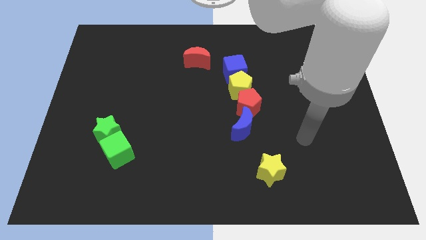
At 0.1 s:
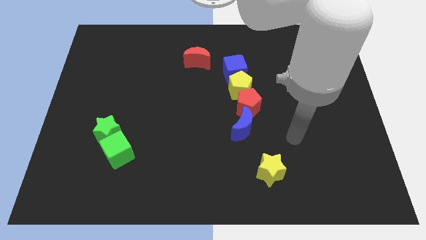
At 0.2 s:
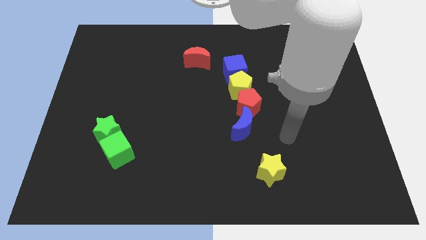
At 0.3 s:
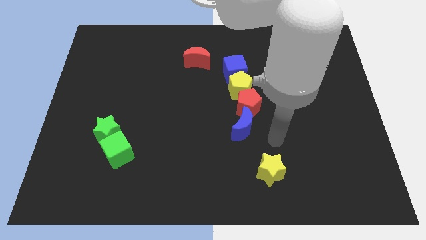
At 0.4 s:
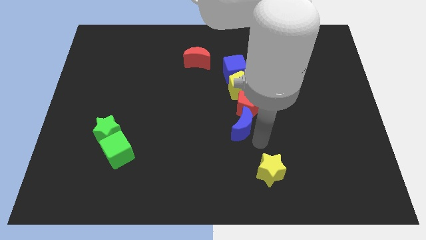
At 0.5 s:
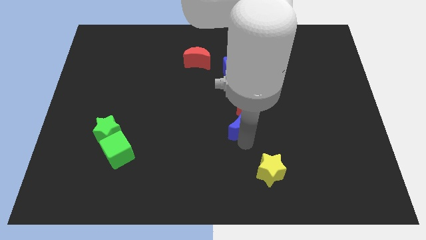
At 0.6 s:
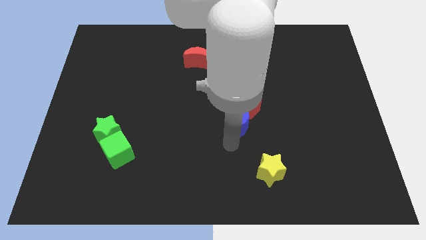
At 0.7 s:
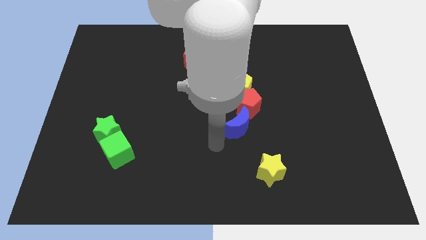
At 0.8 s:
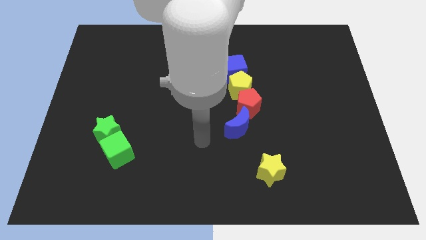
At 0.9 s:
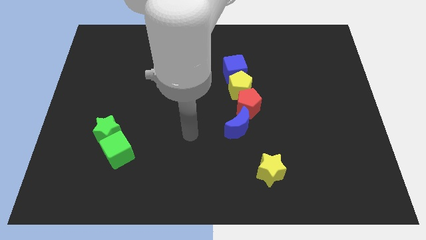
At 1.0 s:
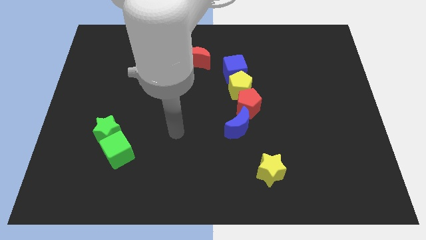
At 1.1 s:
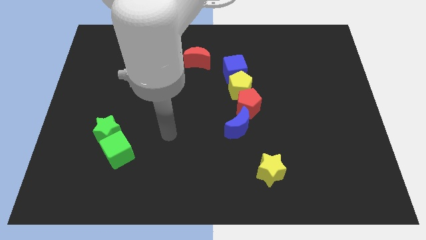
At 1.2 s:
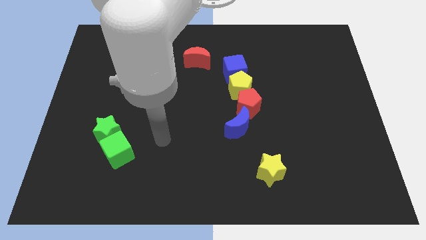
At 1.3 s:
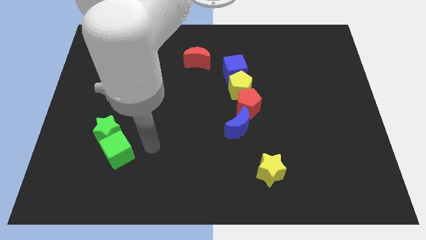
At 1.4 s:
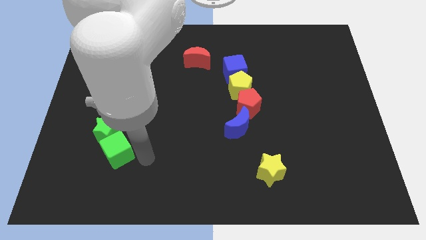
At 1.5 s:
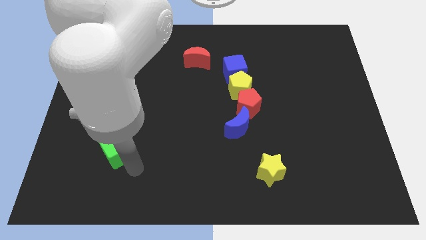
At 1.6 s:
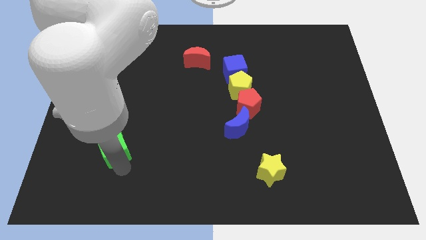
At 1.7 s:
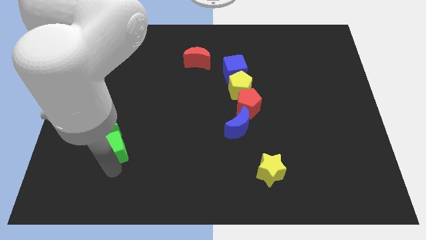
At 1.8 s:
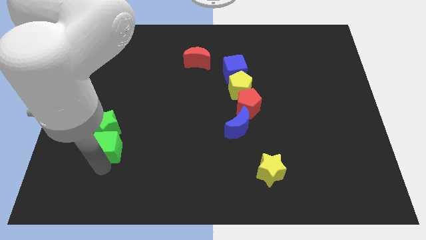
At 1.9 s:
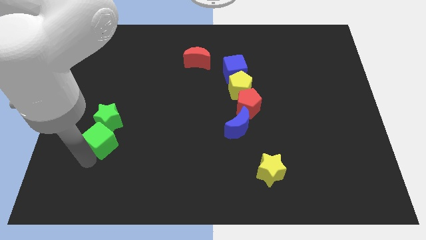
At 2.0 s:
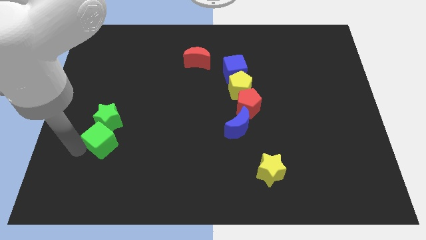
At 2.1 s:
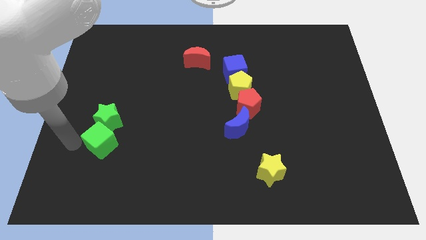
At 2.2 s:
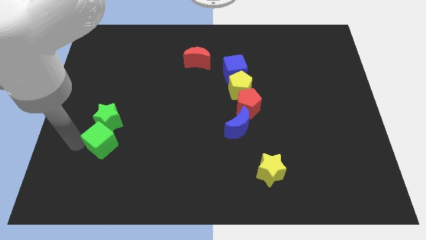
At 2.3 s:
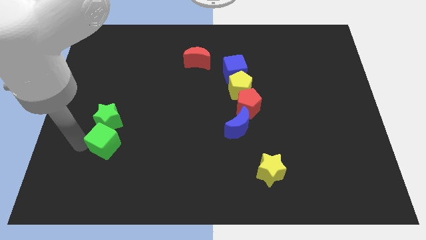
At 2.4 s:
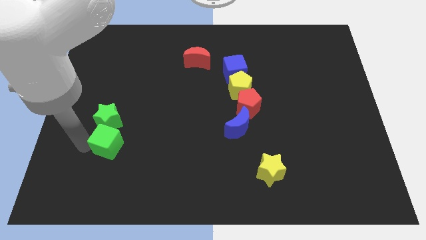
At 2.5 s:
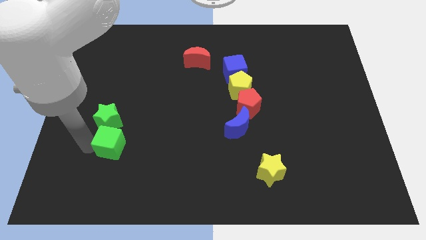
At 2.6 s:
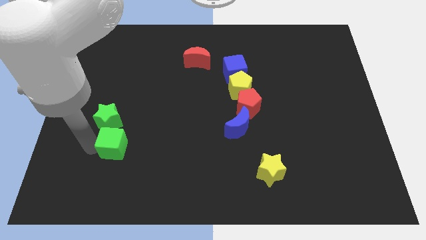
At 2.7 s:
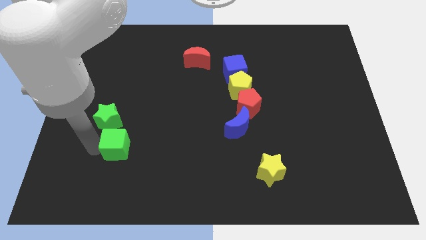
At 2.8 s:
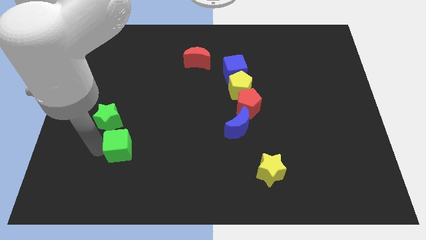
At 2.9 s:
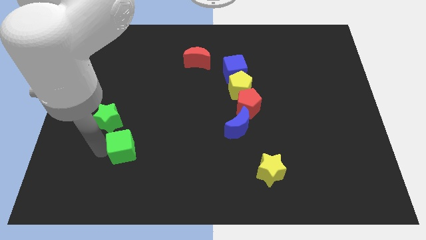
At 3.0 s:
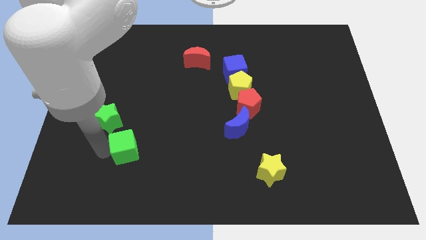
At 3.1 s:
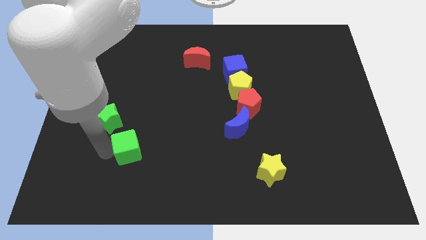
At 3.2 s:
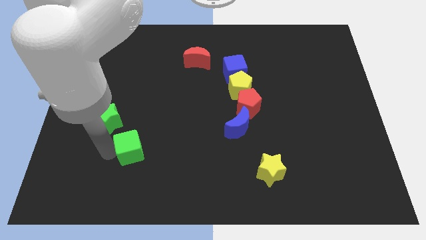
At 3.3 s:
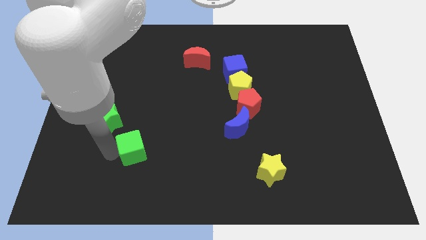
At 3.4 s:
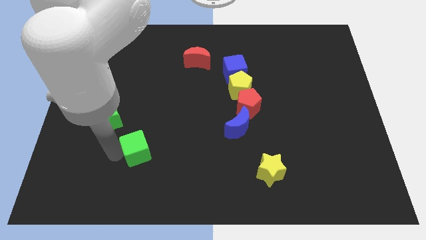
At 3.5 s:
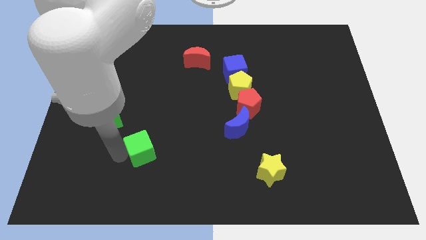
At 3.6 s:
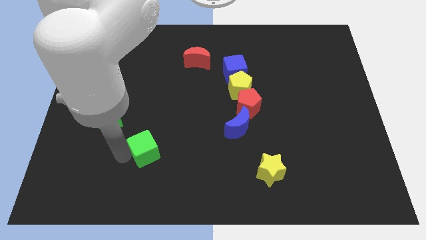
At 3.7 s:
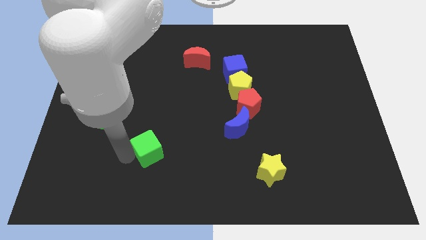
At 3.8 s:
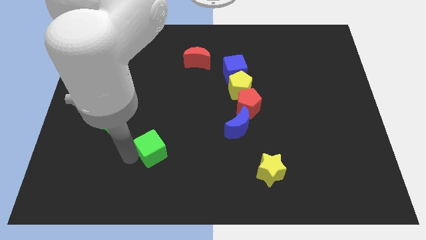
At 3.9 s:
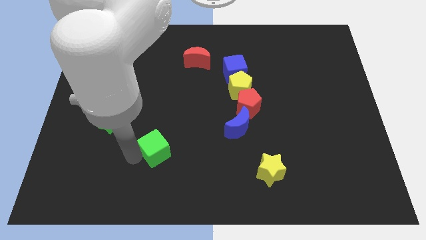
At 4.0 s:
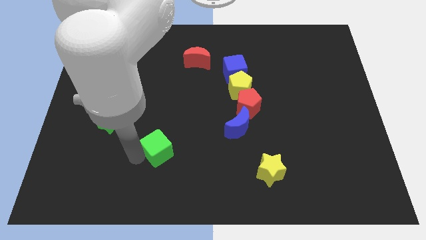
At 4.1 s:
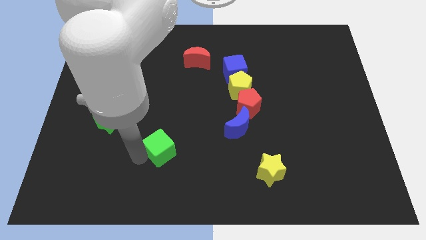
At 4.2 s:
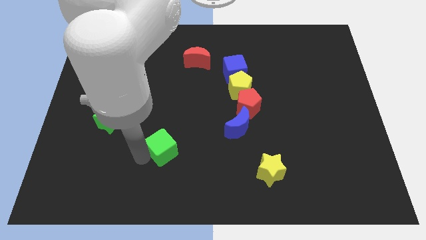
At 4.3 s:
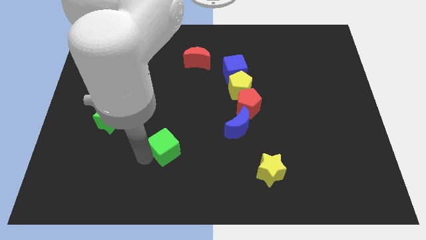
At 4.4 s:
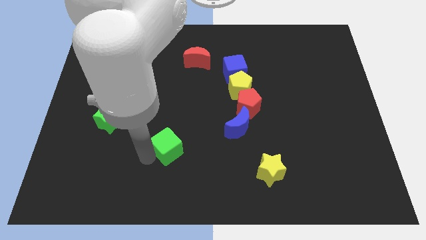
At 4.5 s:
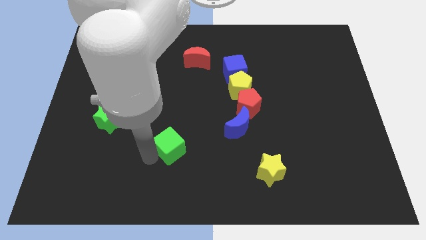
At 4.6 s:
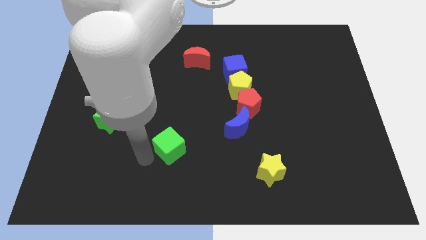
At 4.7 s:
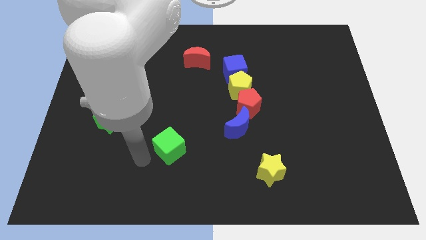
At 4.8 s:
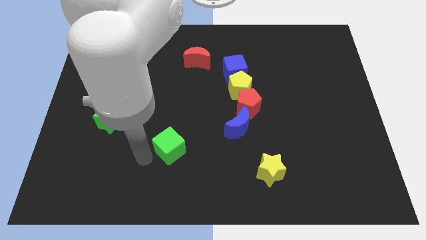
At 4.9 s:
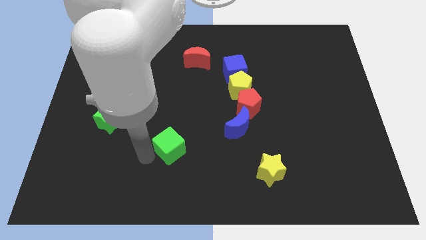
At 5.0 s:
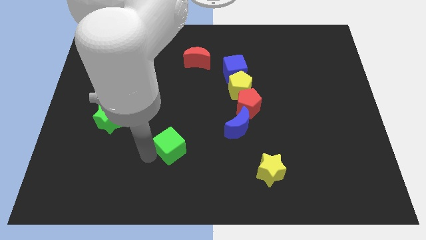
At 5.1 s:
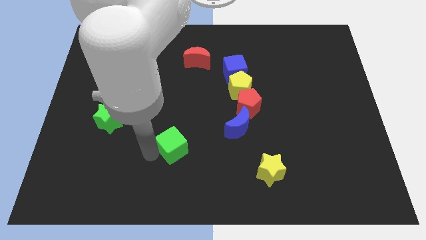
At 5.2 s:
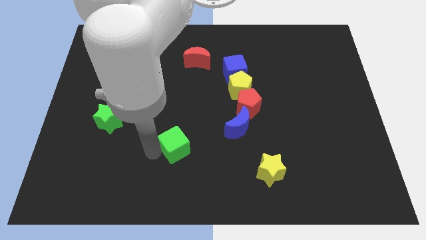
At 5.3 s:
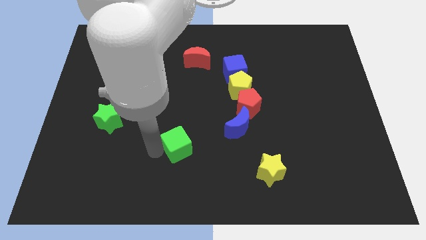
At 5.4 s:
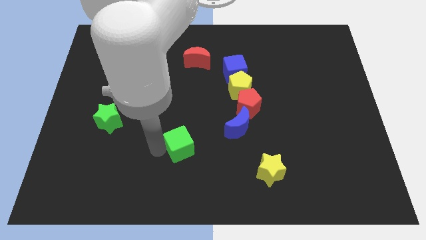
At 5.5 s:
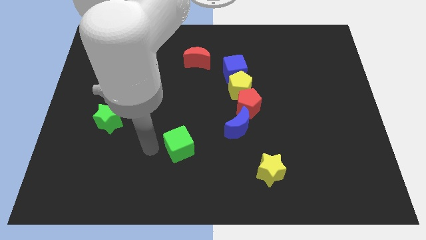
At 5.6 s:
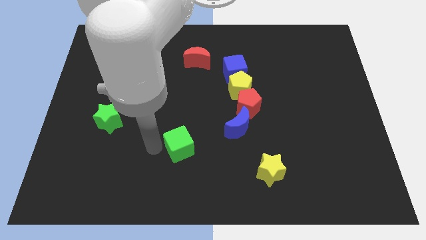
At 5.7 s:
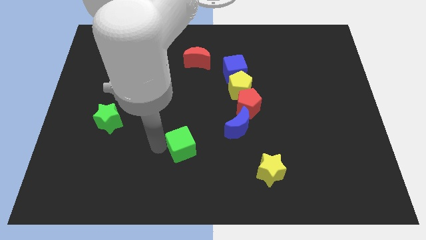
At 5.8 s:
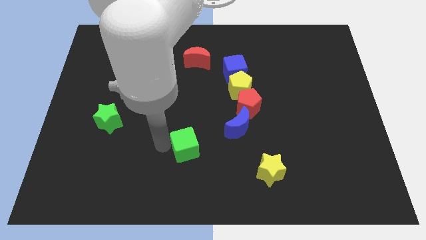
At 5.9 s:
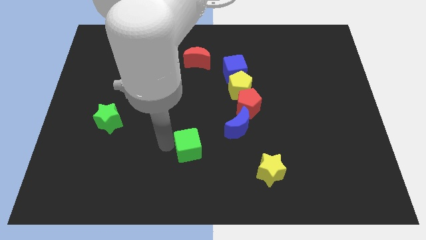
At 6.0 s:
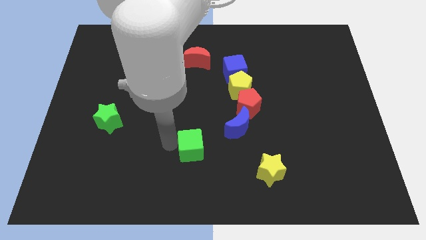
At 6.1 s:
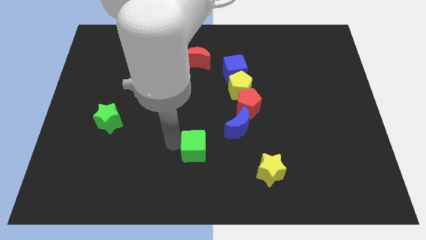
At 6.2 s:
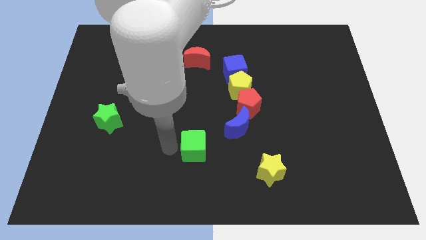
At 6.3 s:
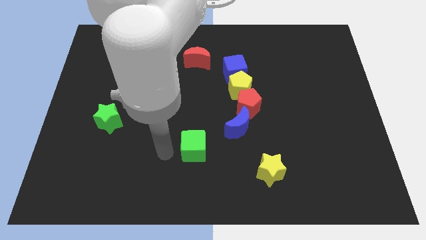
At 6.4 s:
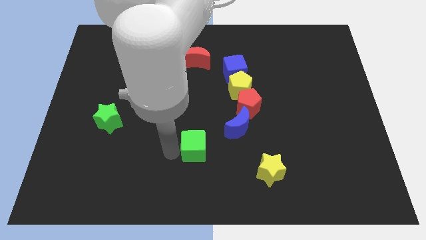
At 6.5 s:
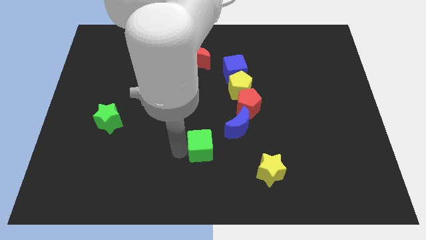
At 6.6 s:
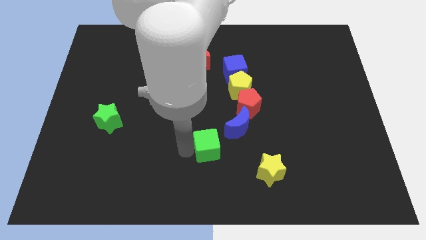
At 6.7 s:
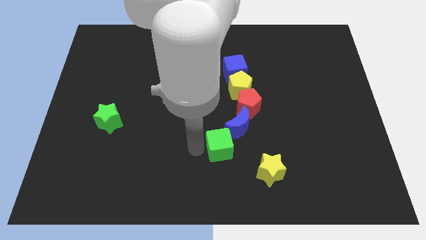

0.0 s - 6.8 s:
move the green cube right

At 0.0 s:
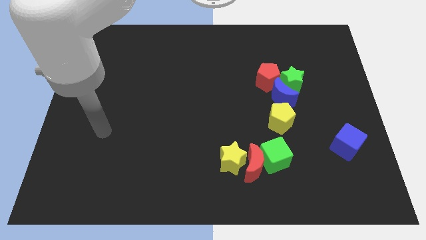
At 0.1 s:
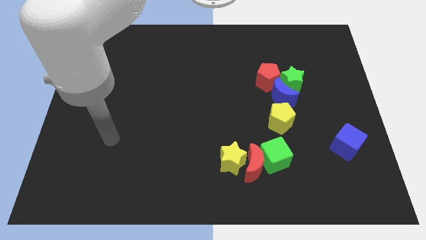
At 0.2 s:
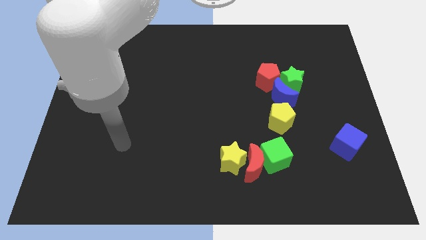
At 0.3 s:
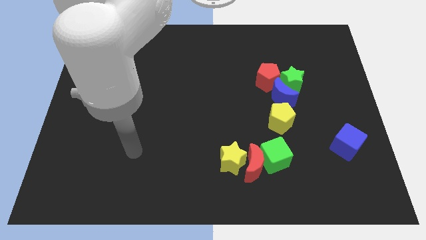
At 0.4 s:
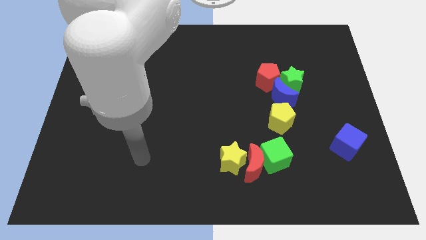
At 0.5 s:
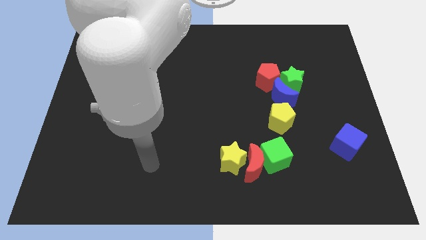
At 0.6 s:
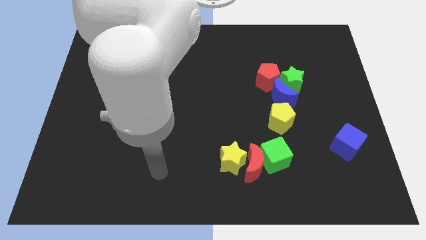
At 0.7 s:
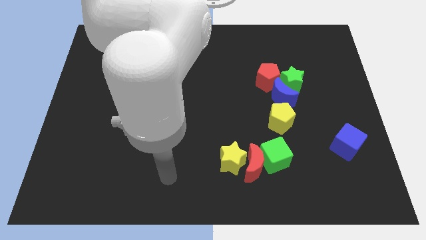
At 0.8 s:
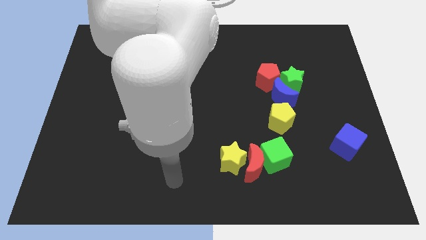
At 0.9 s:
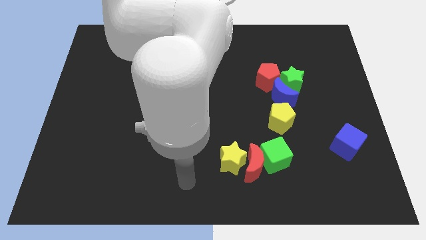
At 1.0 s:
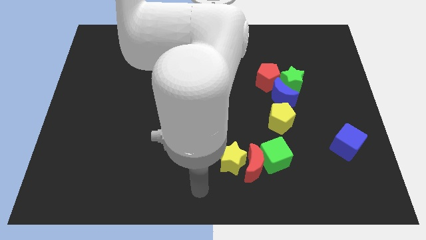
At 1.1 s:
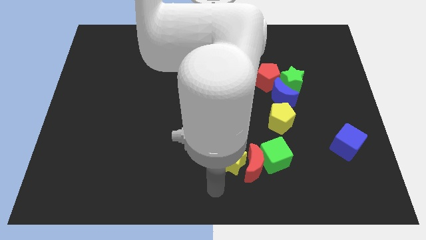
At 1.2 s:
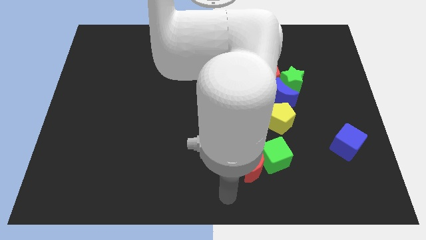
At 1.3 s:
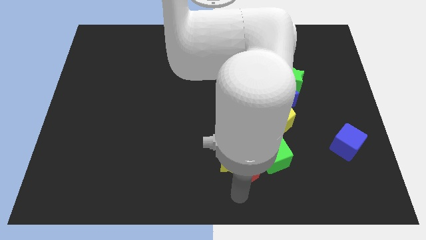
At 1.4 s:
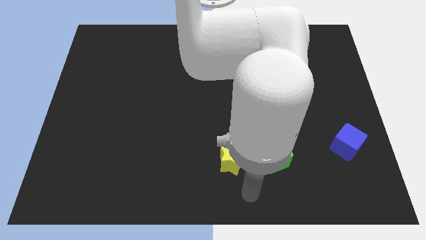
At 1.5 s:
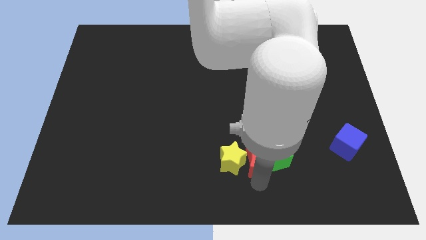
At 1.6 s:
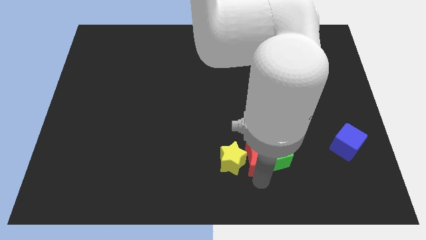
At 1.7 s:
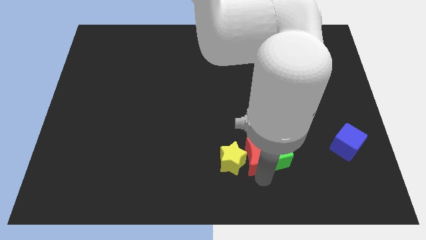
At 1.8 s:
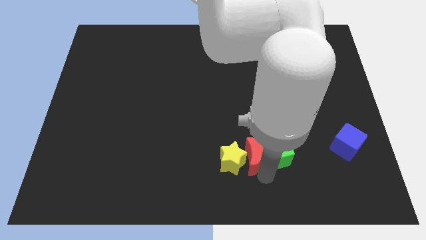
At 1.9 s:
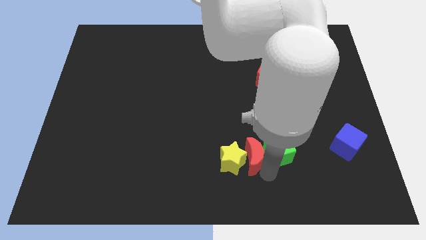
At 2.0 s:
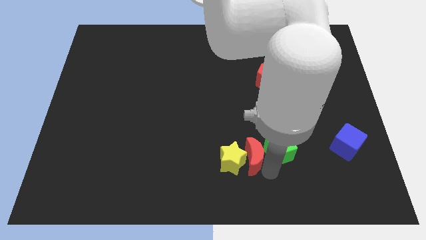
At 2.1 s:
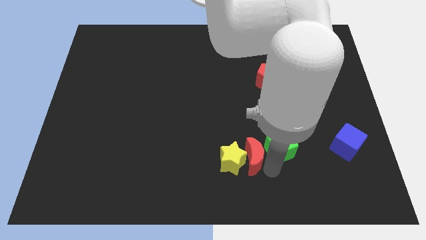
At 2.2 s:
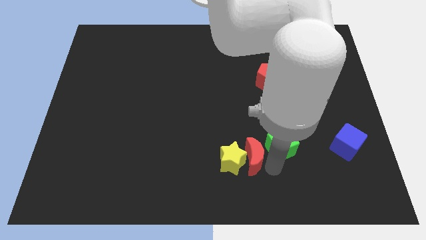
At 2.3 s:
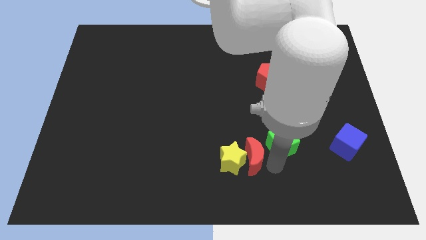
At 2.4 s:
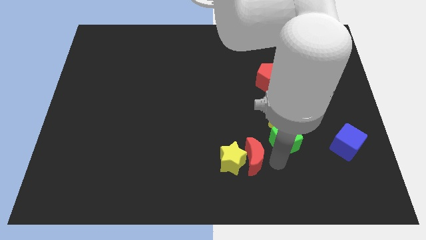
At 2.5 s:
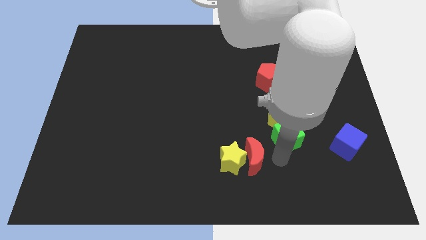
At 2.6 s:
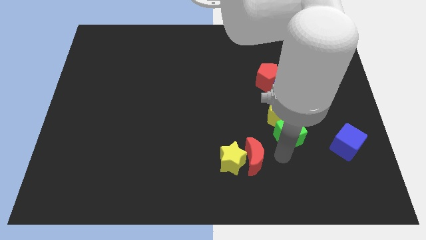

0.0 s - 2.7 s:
slightly move the green cube upwards and right
